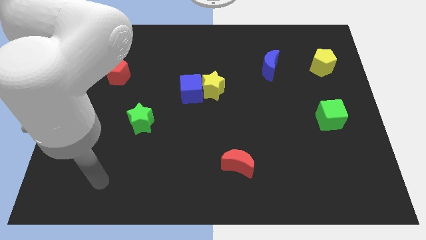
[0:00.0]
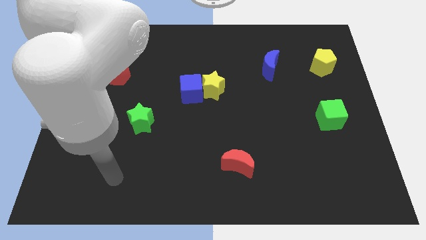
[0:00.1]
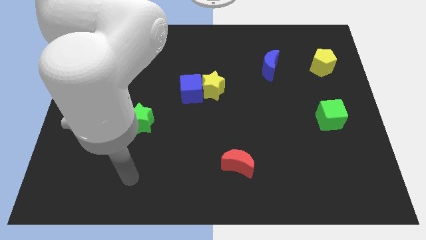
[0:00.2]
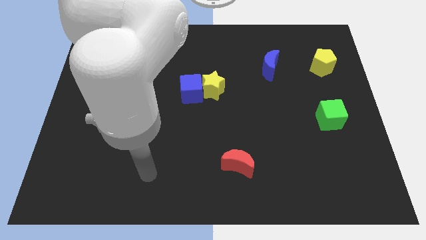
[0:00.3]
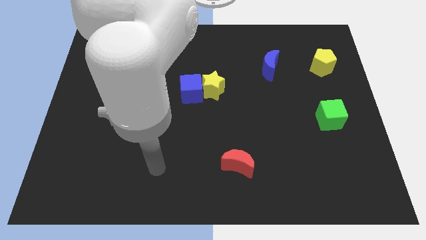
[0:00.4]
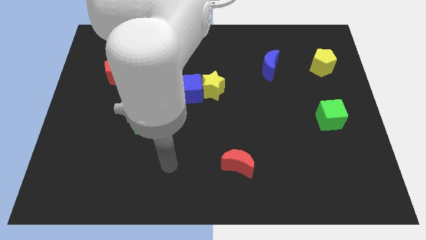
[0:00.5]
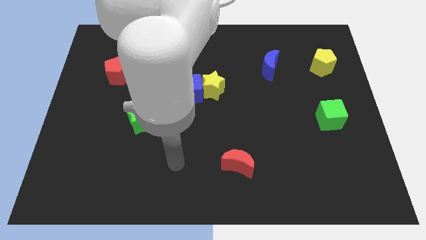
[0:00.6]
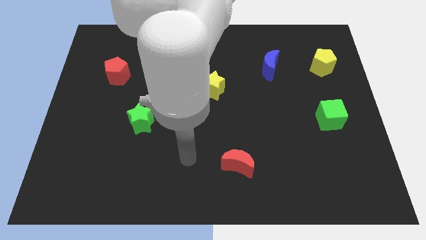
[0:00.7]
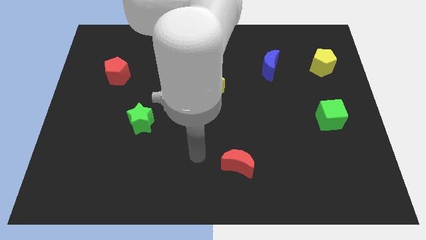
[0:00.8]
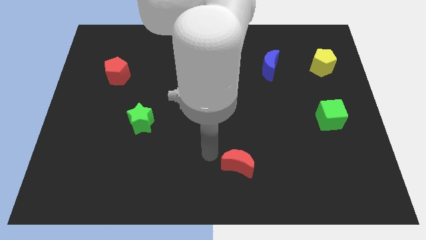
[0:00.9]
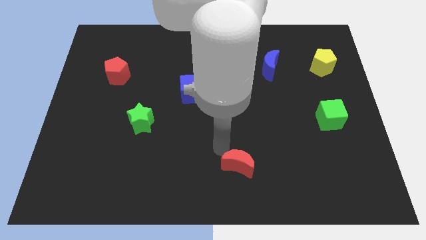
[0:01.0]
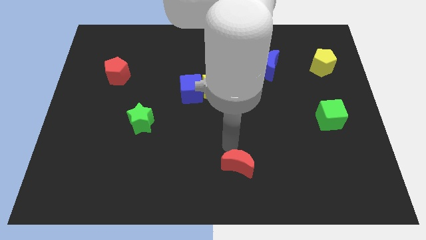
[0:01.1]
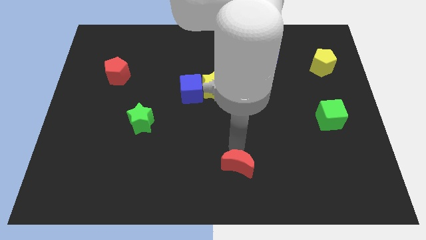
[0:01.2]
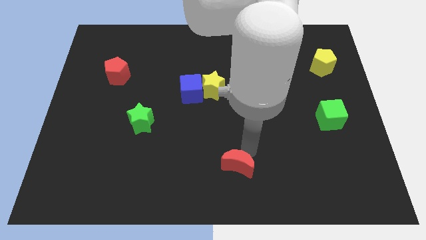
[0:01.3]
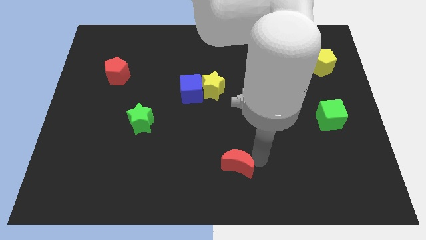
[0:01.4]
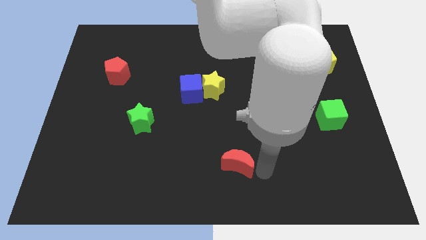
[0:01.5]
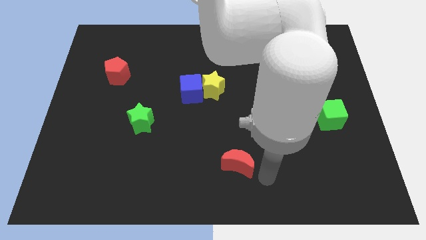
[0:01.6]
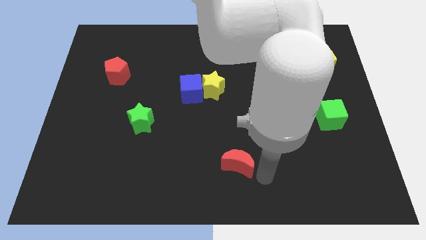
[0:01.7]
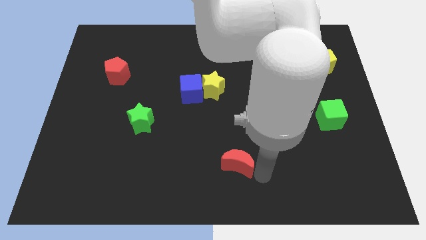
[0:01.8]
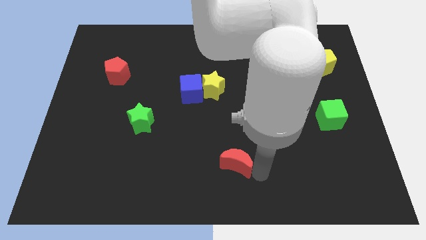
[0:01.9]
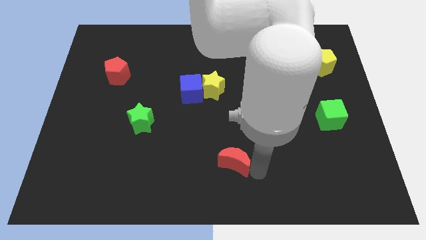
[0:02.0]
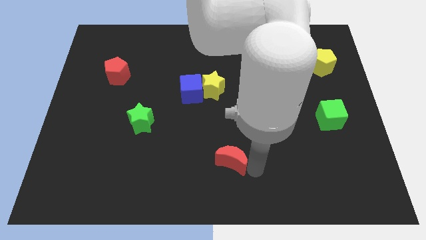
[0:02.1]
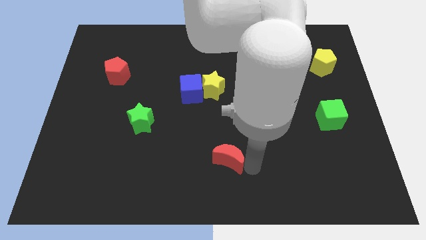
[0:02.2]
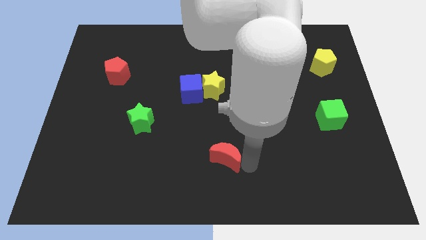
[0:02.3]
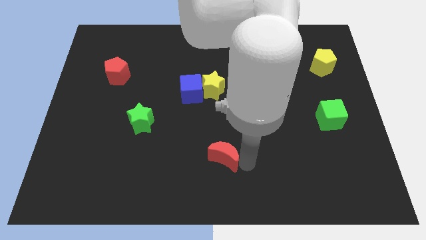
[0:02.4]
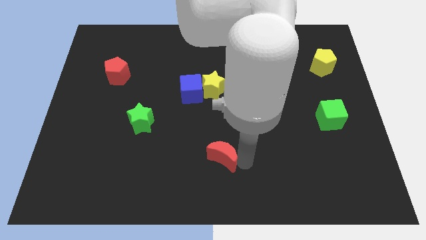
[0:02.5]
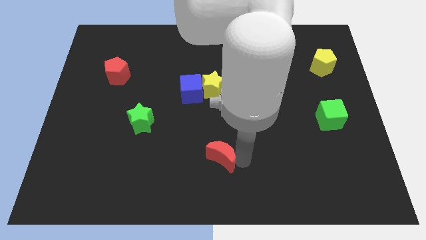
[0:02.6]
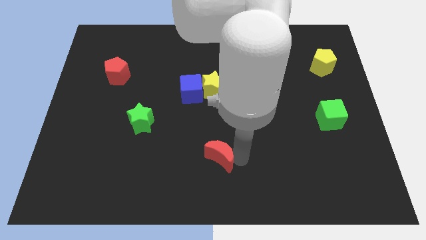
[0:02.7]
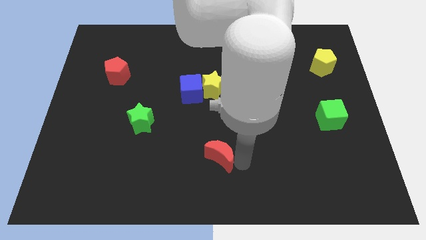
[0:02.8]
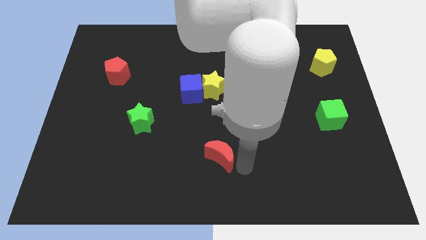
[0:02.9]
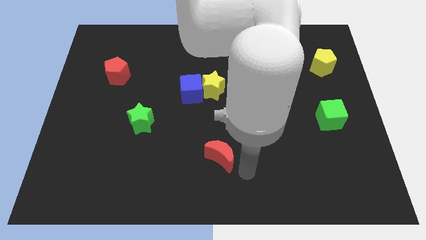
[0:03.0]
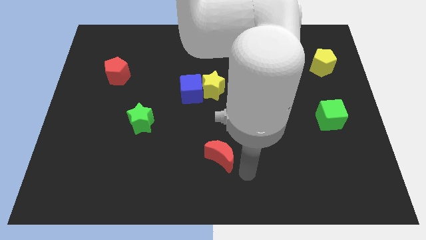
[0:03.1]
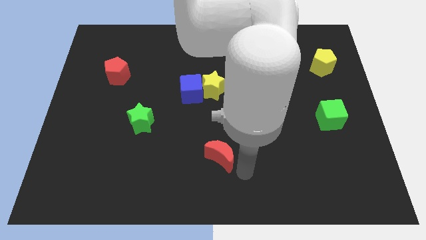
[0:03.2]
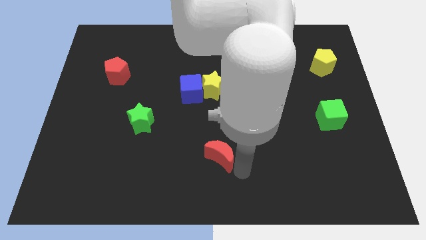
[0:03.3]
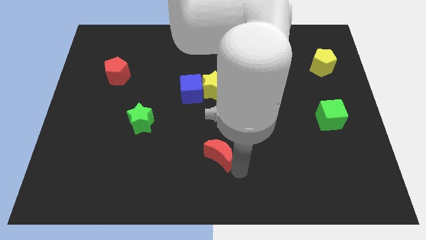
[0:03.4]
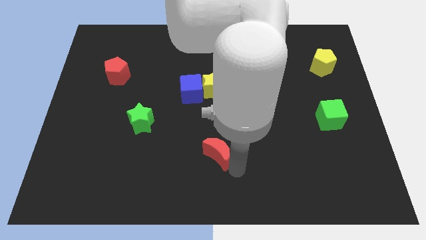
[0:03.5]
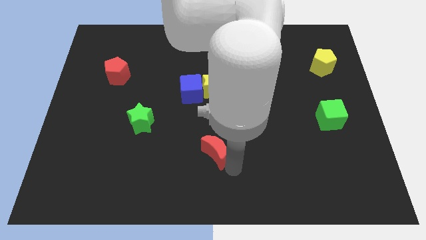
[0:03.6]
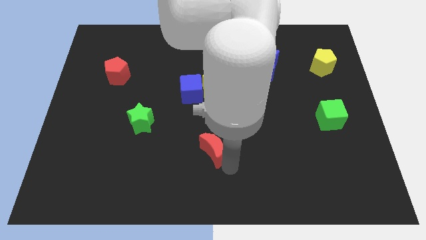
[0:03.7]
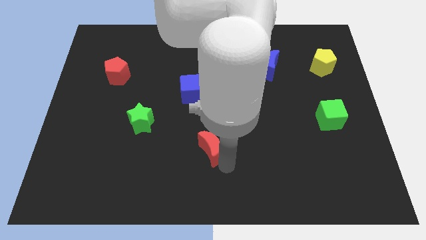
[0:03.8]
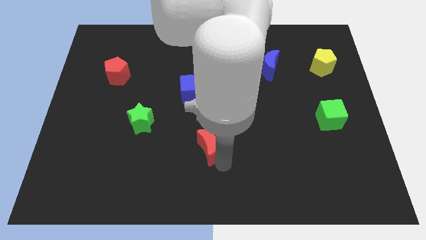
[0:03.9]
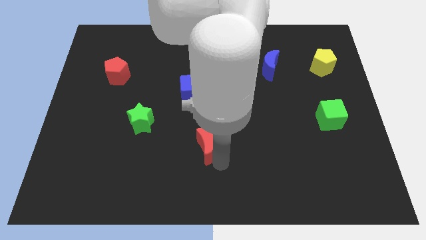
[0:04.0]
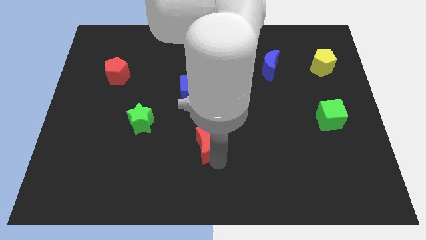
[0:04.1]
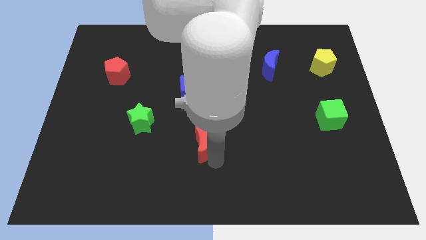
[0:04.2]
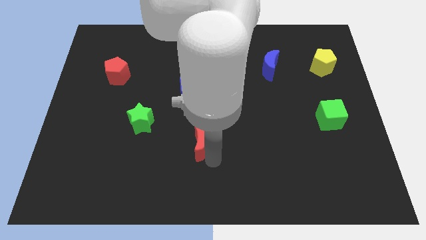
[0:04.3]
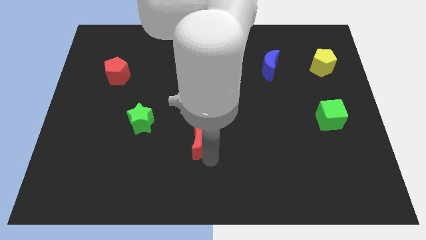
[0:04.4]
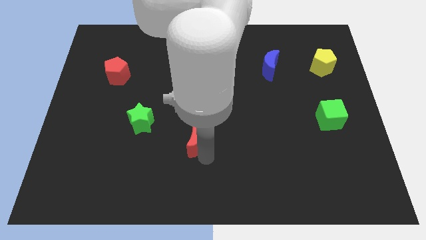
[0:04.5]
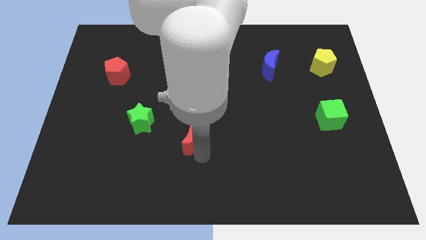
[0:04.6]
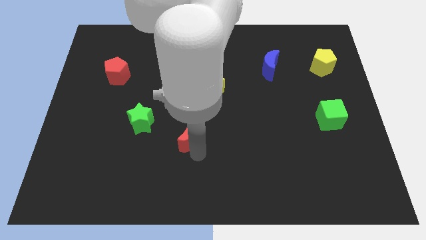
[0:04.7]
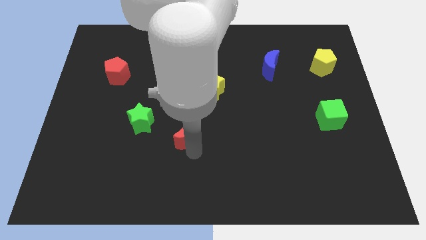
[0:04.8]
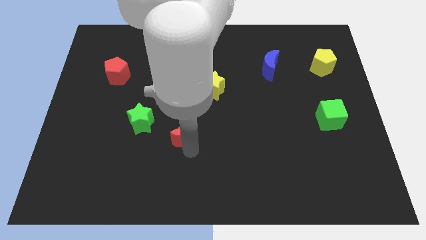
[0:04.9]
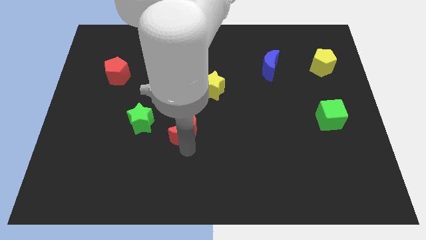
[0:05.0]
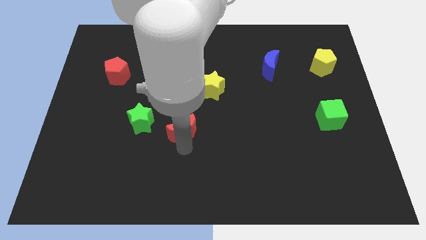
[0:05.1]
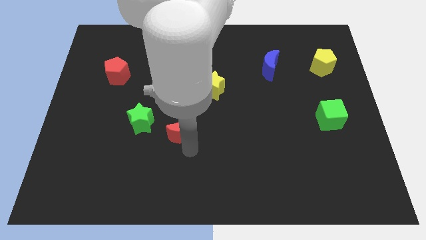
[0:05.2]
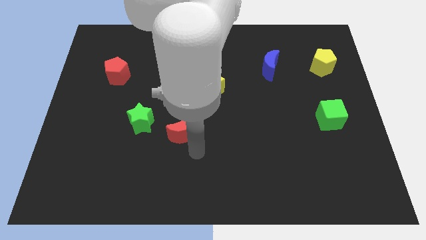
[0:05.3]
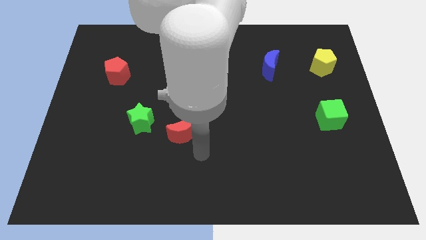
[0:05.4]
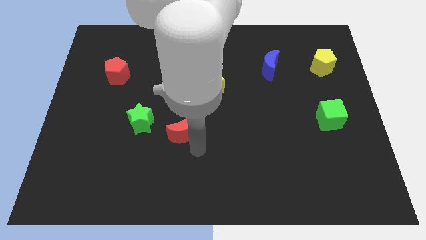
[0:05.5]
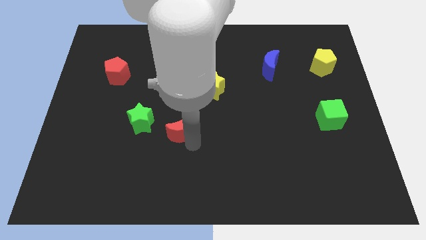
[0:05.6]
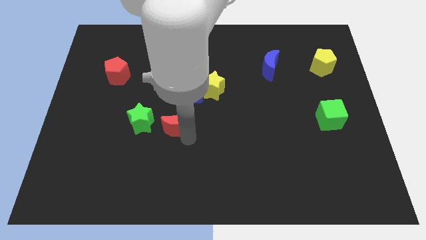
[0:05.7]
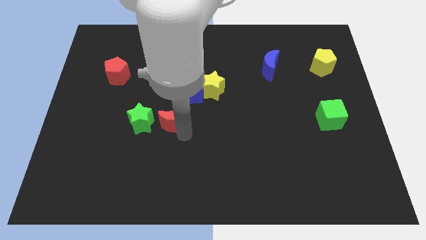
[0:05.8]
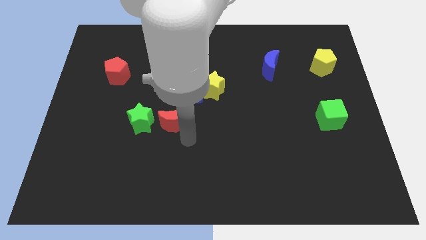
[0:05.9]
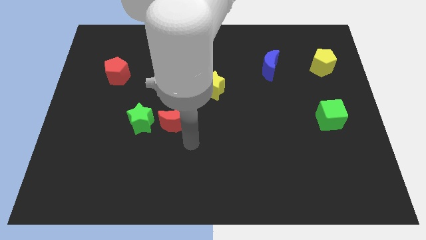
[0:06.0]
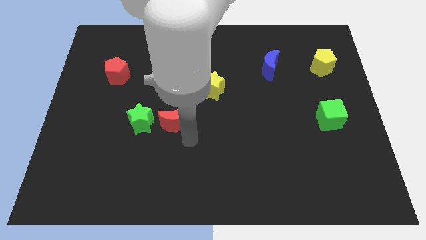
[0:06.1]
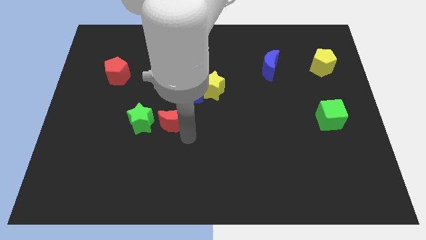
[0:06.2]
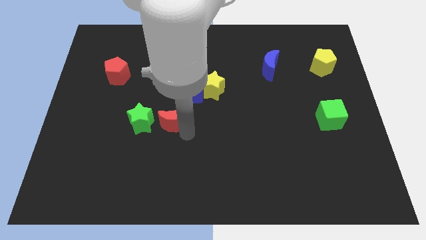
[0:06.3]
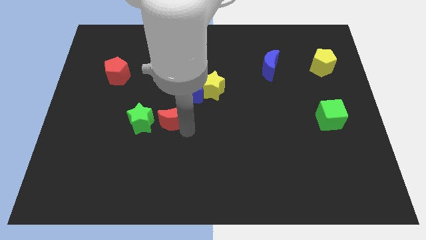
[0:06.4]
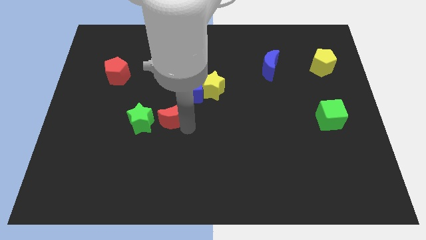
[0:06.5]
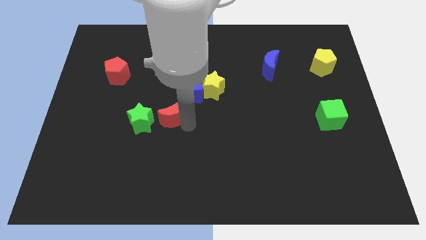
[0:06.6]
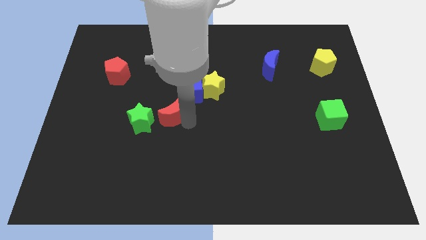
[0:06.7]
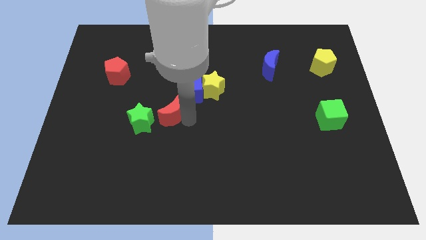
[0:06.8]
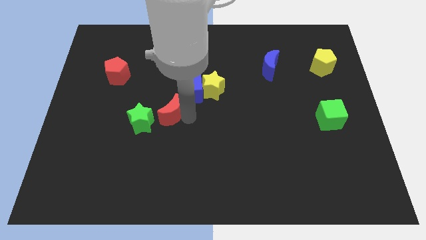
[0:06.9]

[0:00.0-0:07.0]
move the red moon upwards and left

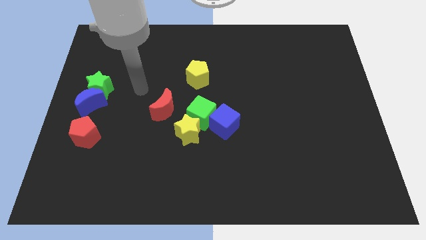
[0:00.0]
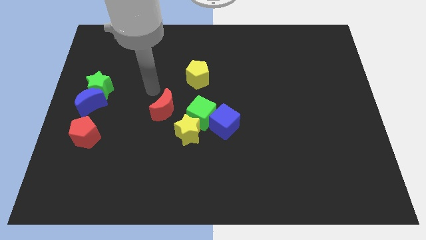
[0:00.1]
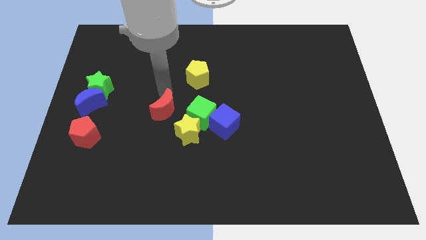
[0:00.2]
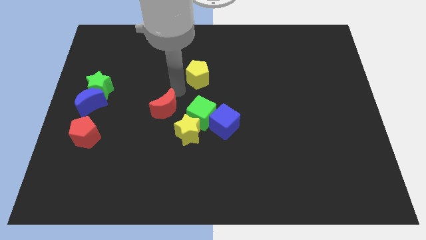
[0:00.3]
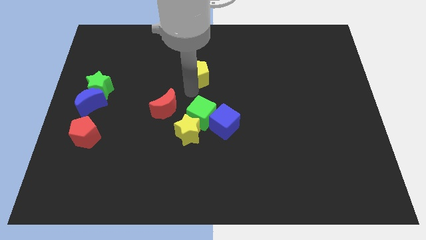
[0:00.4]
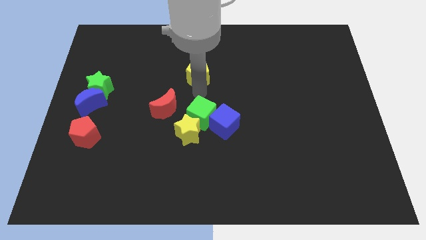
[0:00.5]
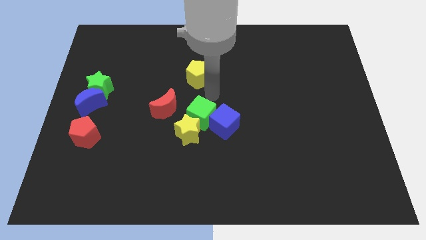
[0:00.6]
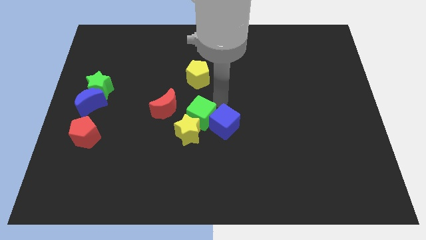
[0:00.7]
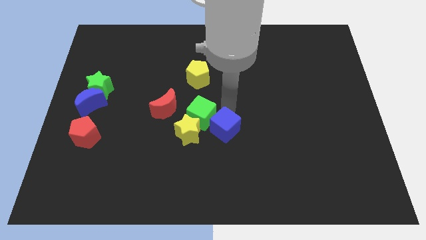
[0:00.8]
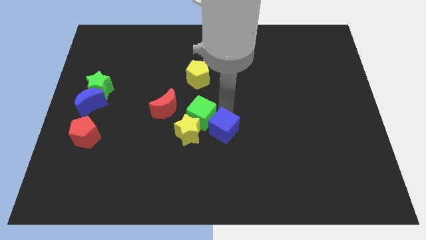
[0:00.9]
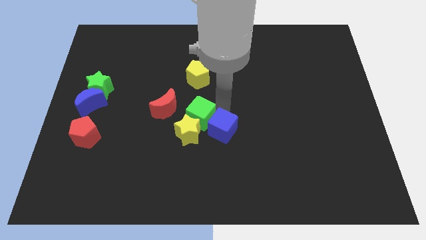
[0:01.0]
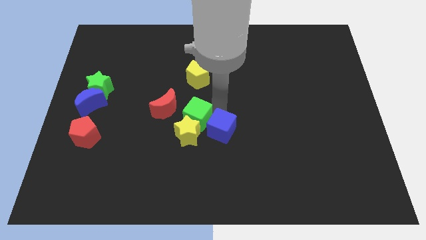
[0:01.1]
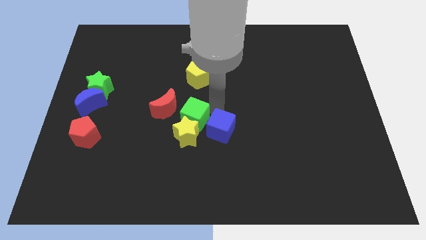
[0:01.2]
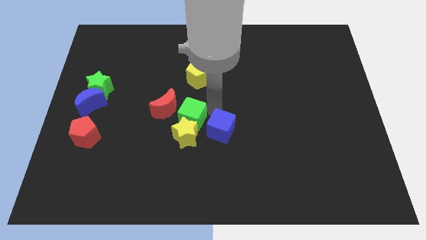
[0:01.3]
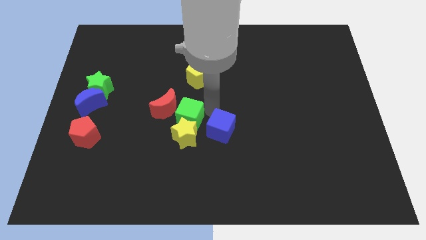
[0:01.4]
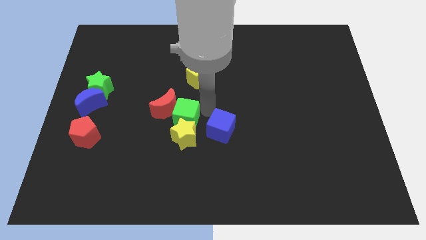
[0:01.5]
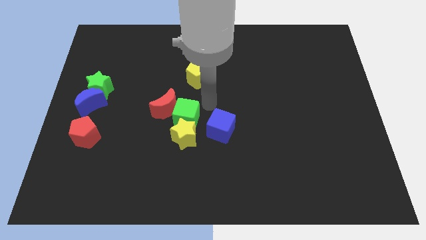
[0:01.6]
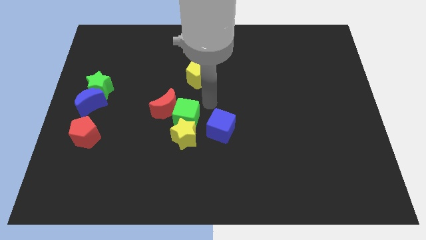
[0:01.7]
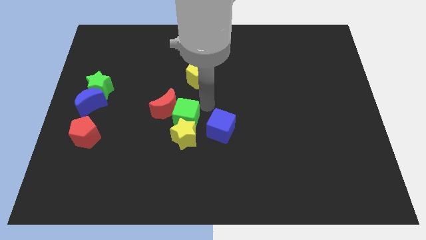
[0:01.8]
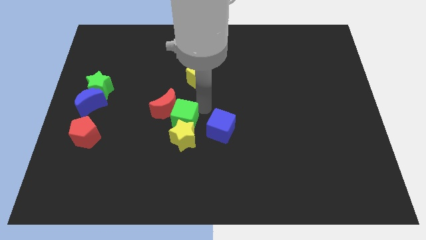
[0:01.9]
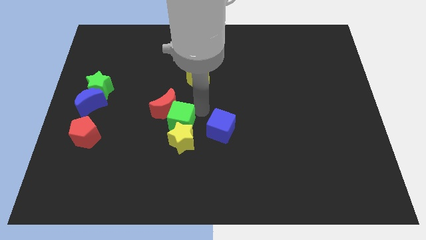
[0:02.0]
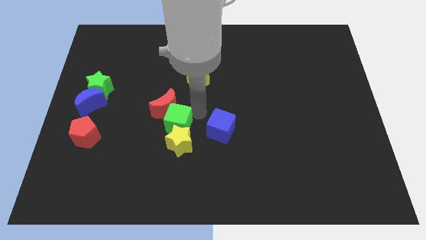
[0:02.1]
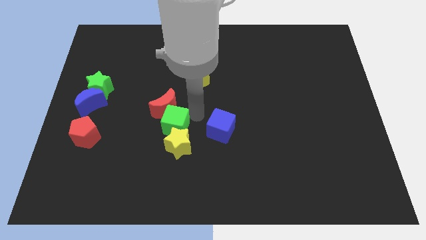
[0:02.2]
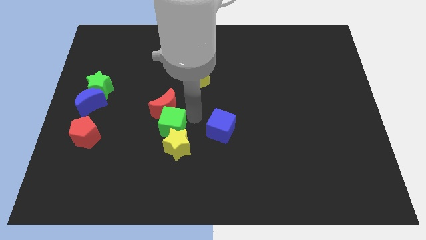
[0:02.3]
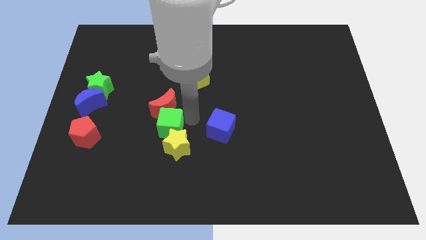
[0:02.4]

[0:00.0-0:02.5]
move the green cube diagonally downwards and left somewhat
